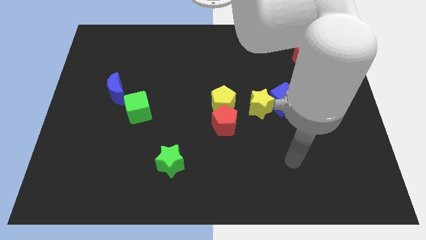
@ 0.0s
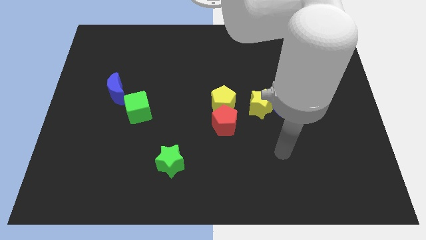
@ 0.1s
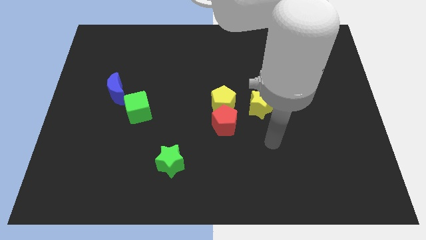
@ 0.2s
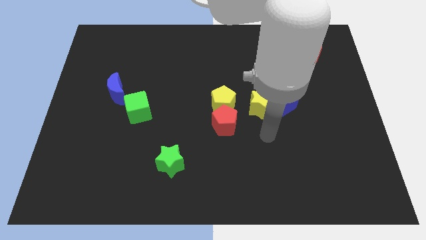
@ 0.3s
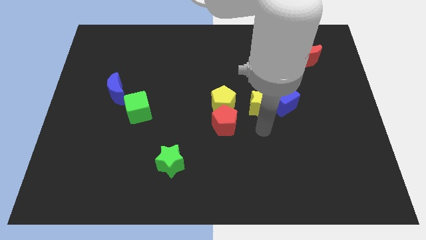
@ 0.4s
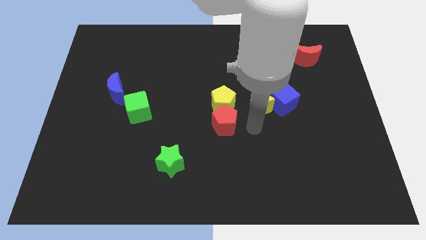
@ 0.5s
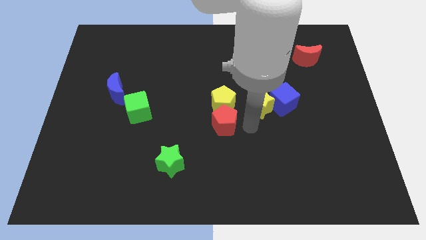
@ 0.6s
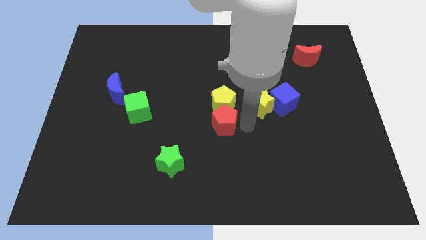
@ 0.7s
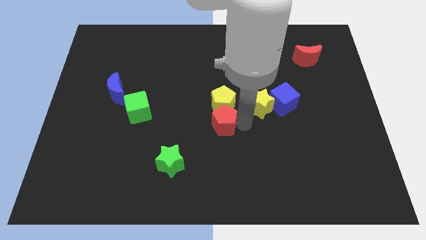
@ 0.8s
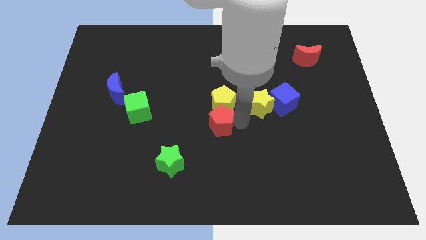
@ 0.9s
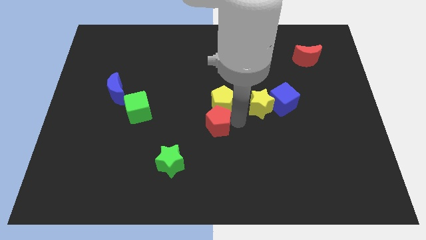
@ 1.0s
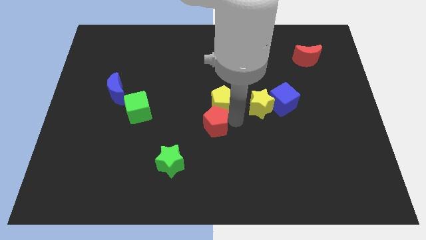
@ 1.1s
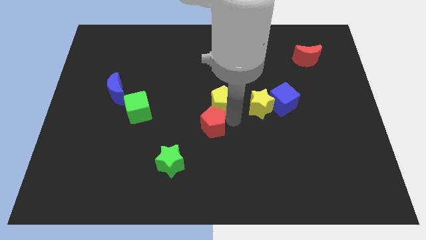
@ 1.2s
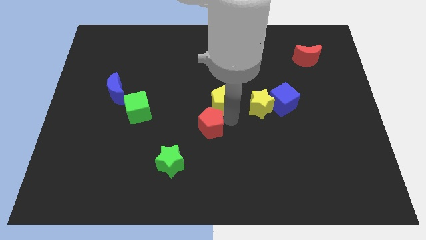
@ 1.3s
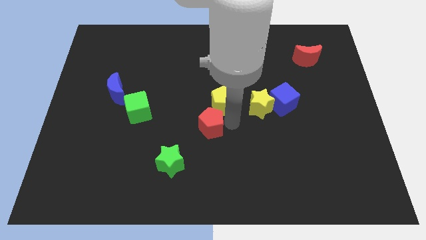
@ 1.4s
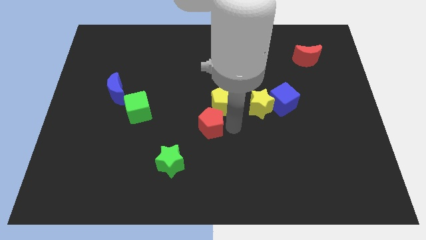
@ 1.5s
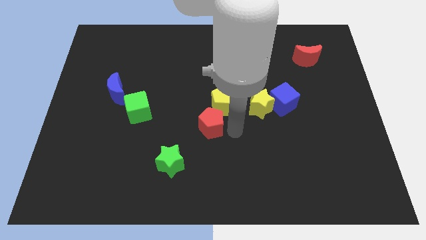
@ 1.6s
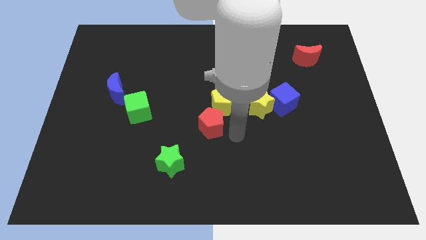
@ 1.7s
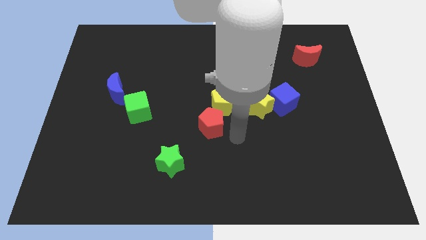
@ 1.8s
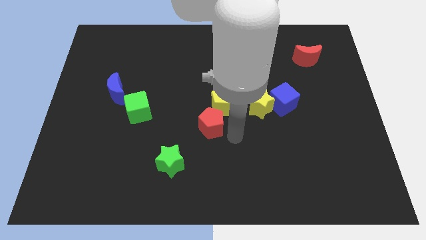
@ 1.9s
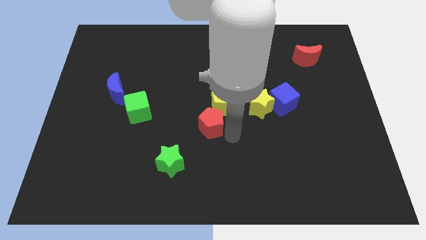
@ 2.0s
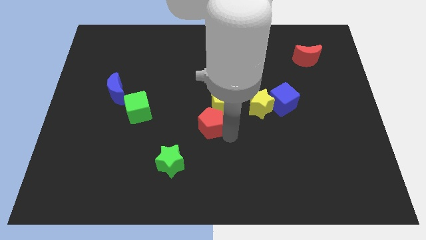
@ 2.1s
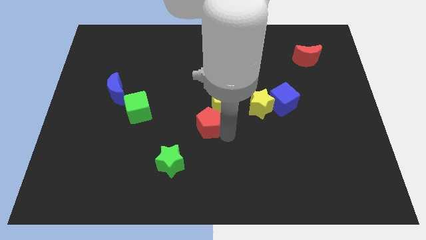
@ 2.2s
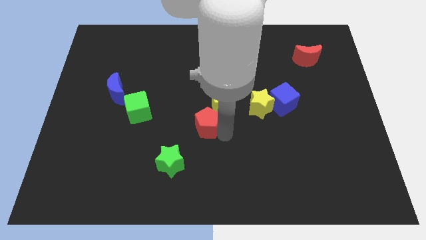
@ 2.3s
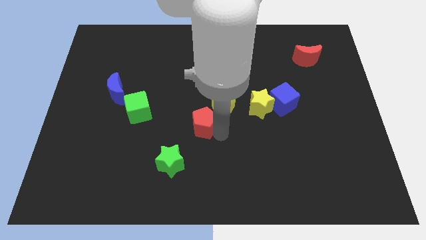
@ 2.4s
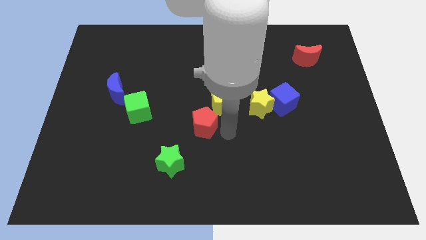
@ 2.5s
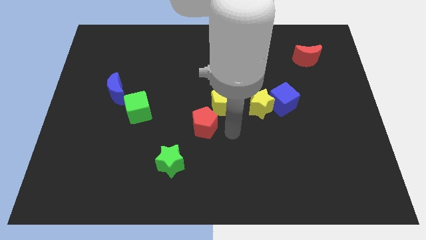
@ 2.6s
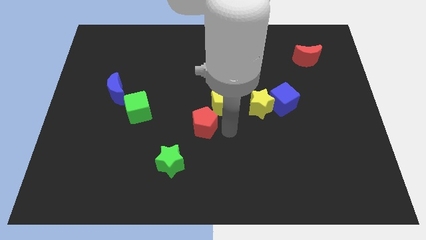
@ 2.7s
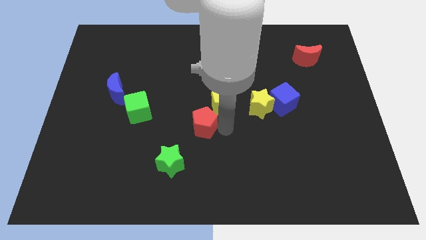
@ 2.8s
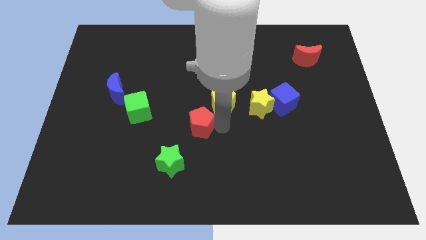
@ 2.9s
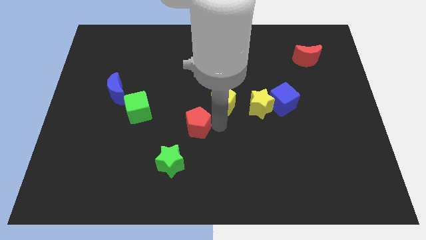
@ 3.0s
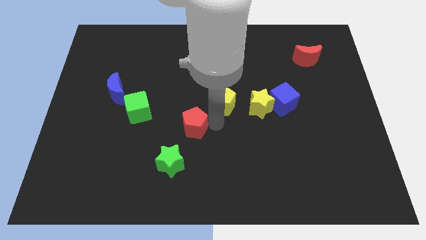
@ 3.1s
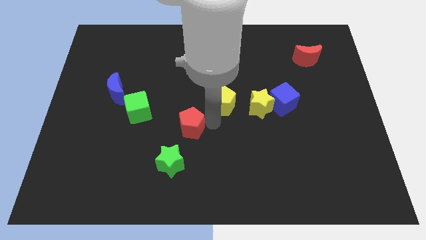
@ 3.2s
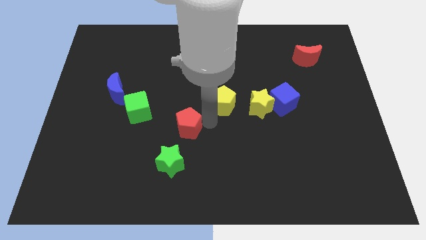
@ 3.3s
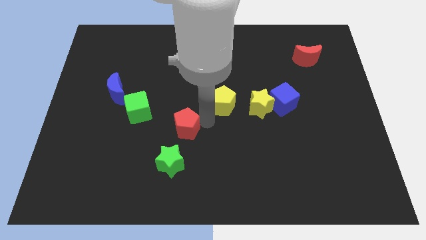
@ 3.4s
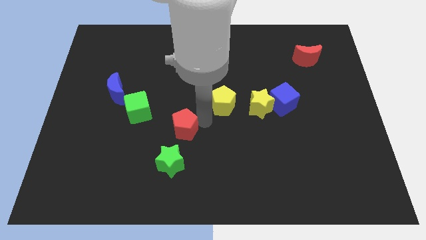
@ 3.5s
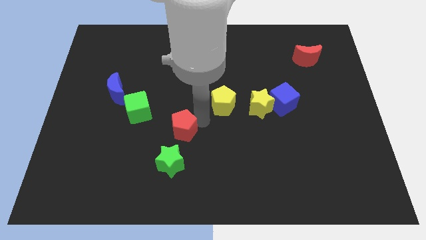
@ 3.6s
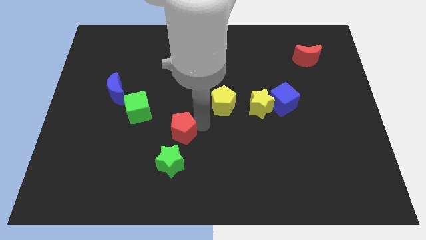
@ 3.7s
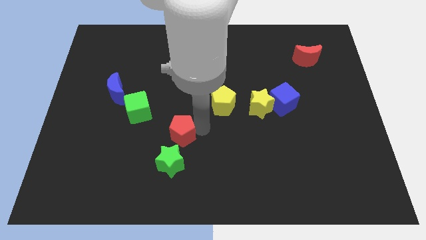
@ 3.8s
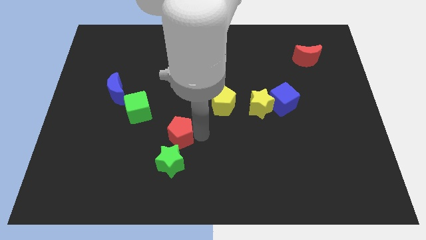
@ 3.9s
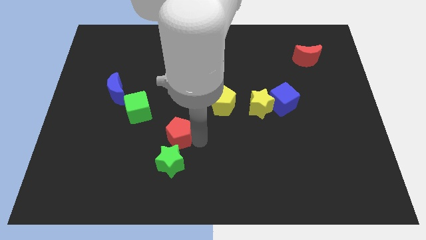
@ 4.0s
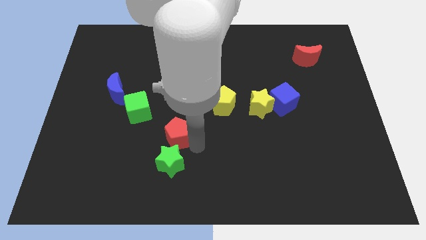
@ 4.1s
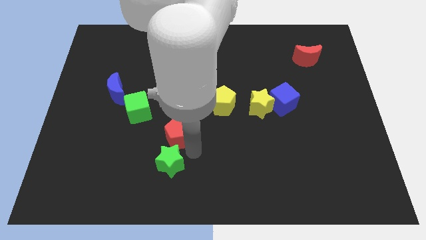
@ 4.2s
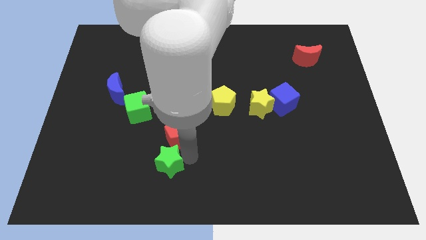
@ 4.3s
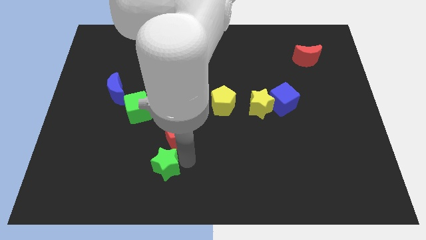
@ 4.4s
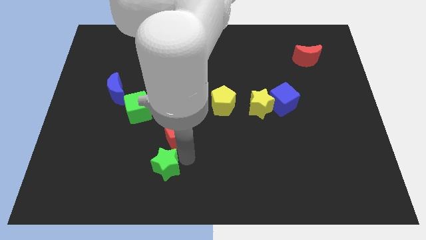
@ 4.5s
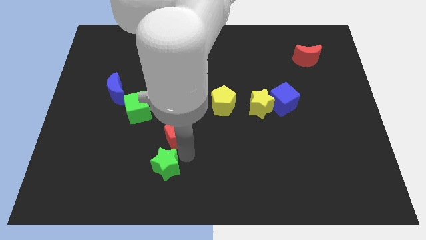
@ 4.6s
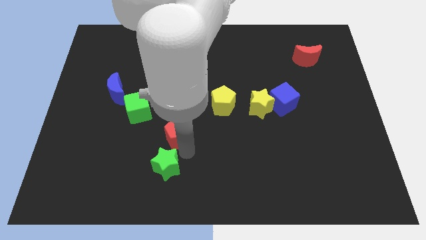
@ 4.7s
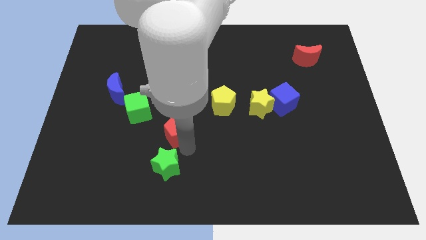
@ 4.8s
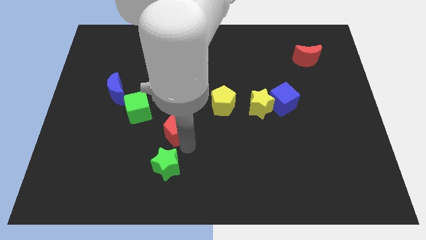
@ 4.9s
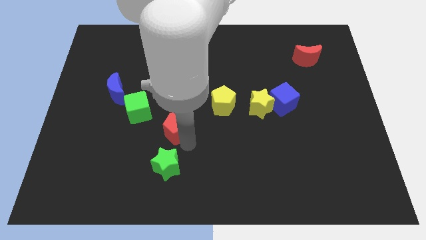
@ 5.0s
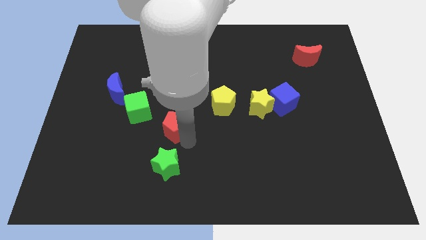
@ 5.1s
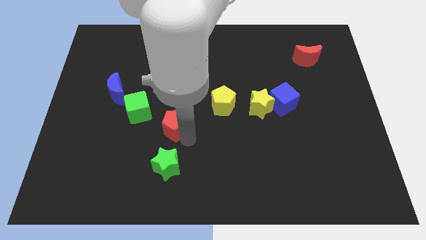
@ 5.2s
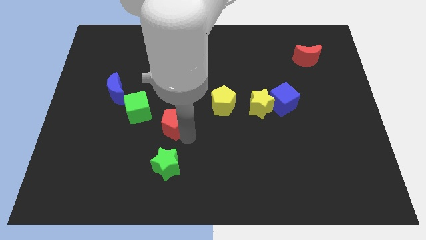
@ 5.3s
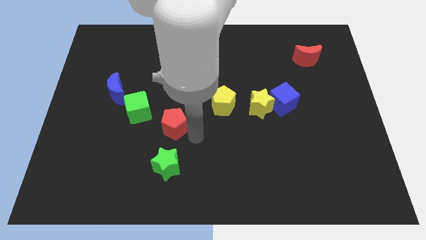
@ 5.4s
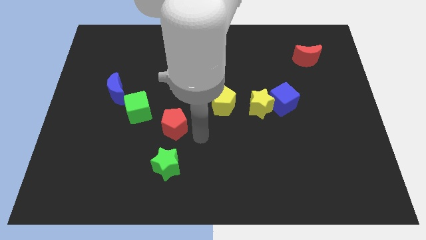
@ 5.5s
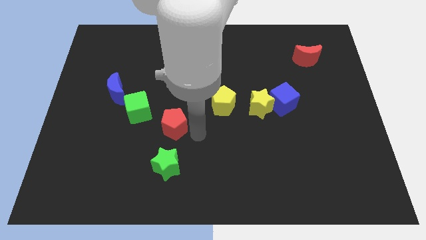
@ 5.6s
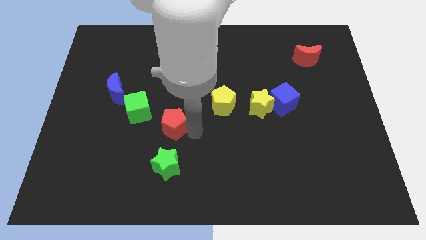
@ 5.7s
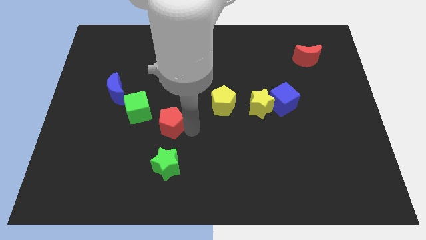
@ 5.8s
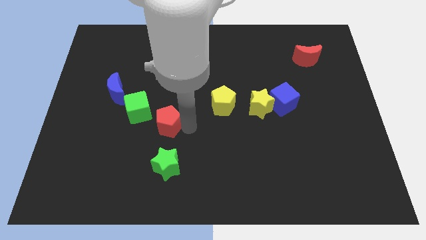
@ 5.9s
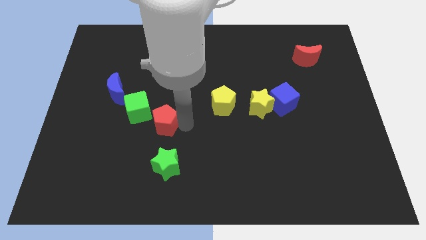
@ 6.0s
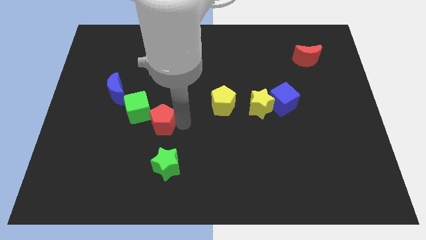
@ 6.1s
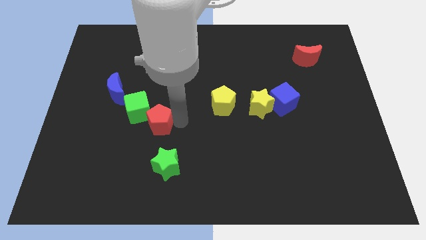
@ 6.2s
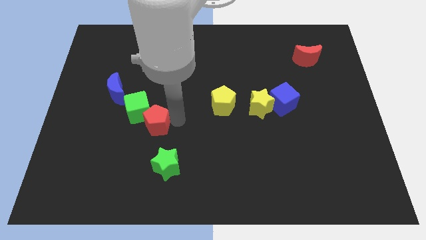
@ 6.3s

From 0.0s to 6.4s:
move the red pentagon close to the green cube
